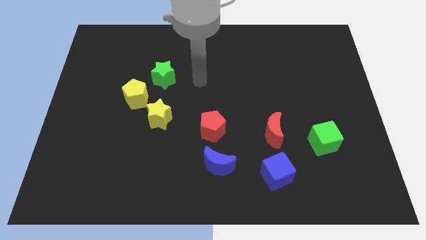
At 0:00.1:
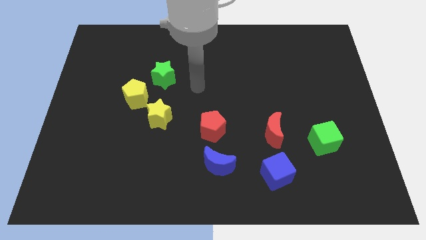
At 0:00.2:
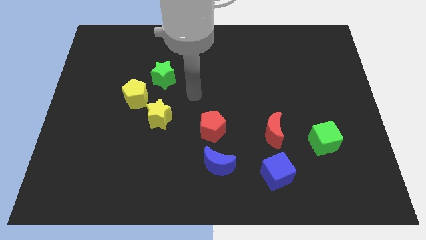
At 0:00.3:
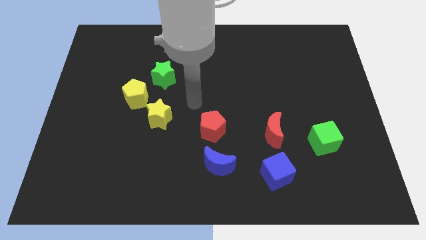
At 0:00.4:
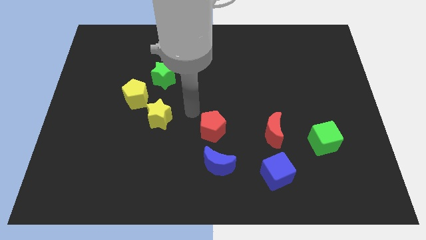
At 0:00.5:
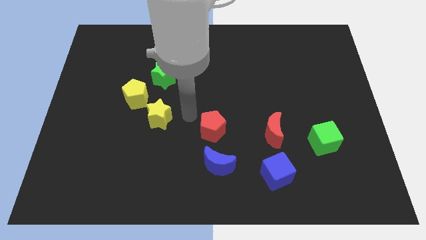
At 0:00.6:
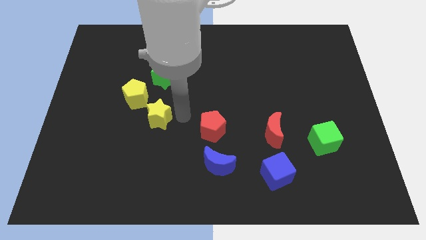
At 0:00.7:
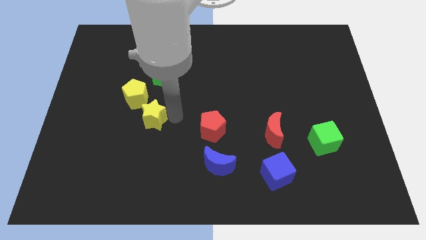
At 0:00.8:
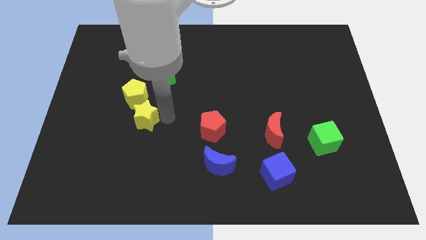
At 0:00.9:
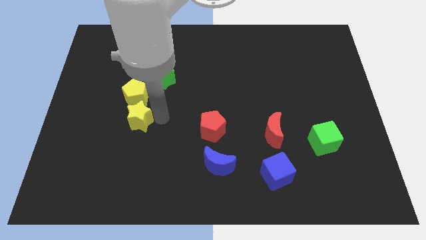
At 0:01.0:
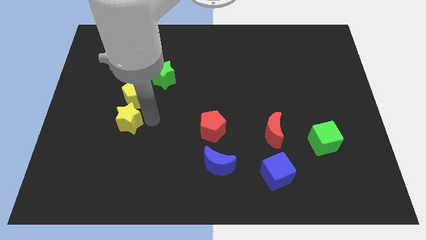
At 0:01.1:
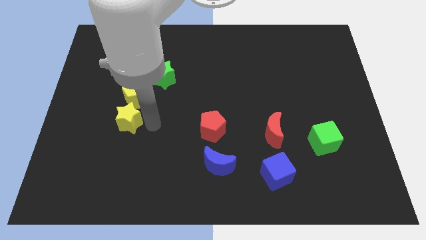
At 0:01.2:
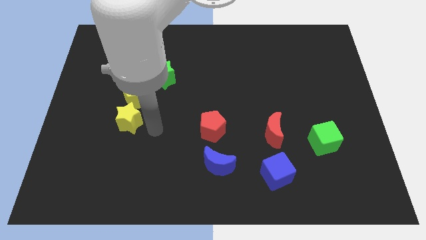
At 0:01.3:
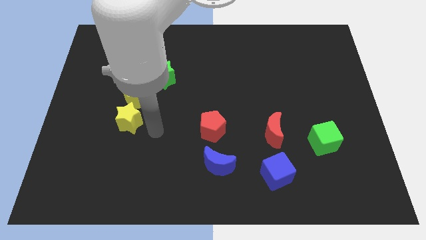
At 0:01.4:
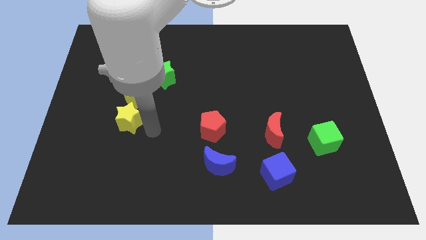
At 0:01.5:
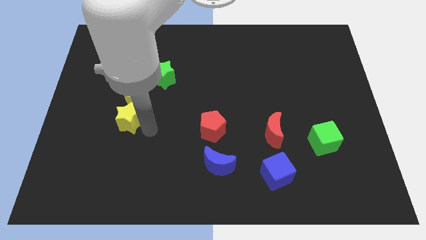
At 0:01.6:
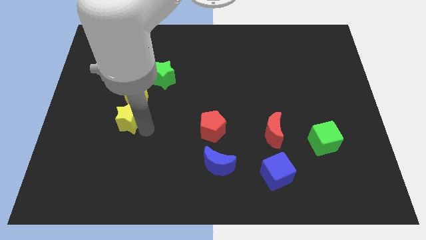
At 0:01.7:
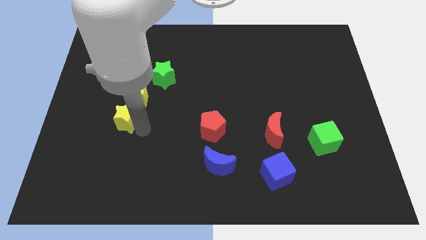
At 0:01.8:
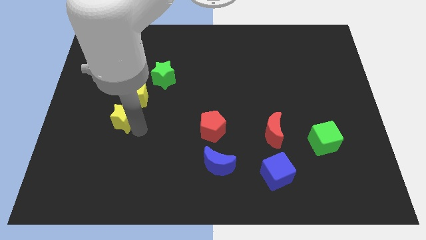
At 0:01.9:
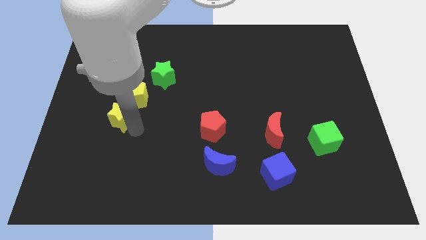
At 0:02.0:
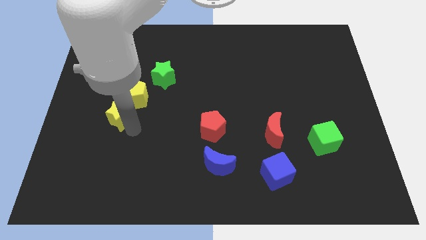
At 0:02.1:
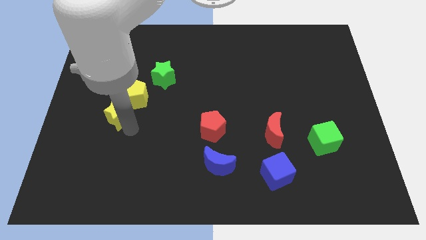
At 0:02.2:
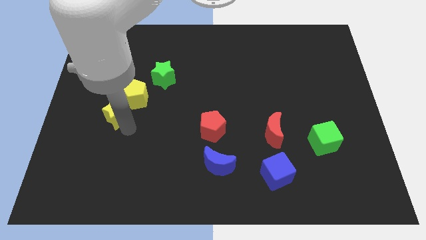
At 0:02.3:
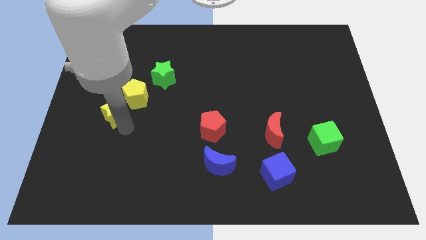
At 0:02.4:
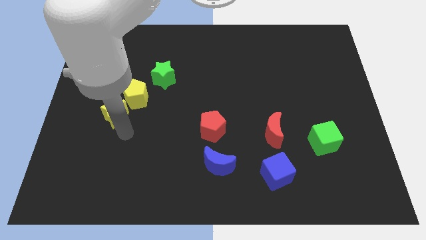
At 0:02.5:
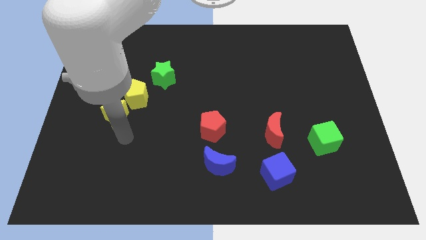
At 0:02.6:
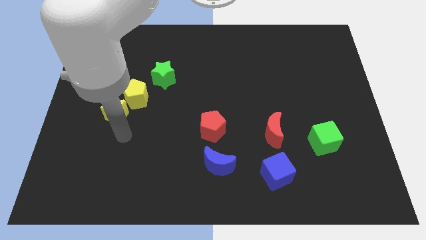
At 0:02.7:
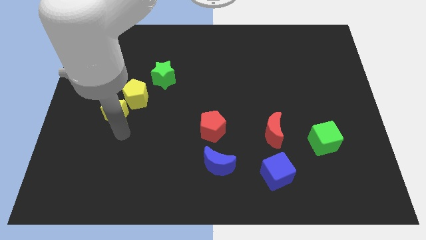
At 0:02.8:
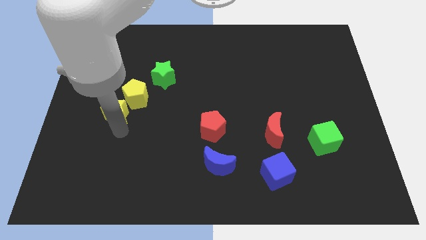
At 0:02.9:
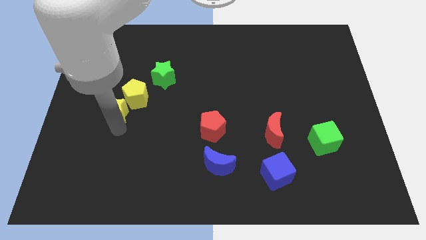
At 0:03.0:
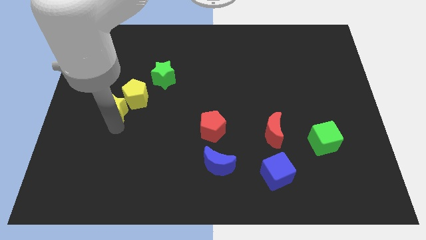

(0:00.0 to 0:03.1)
slide the yellow star a little upwards and to the left

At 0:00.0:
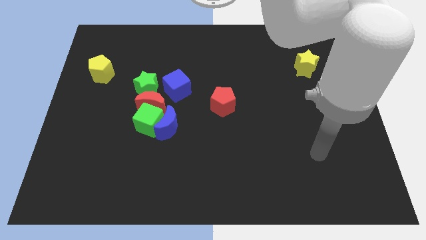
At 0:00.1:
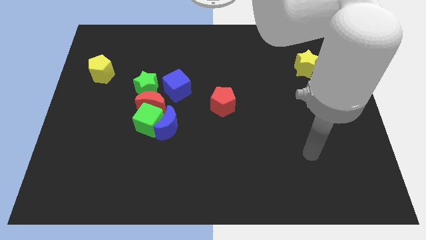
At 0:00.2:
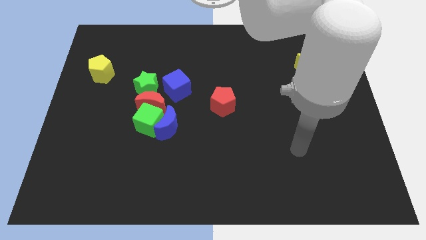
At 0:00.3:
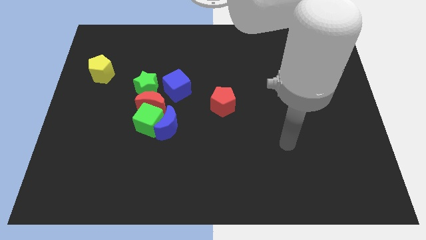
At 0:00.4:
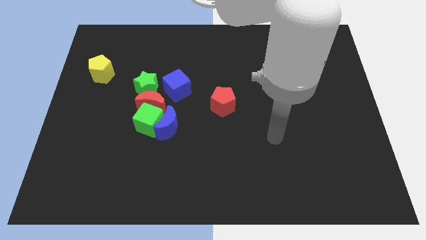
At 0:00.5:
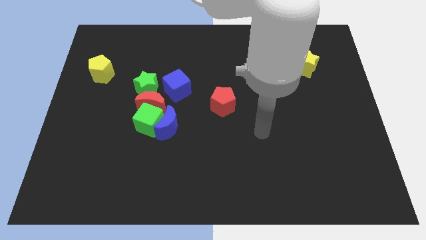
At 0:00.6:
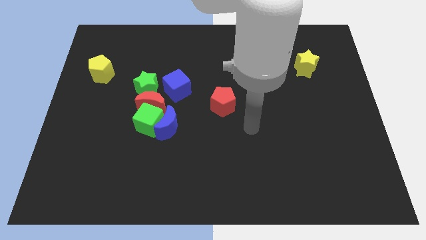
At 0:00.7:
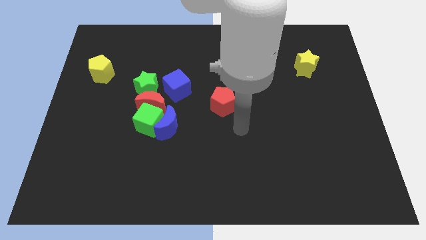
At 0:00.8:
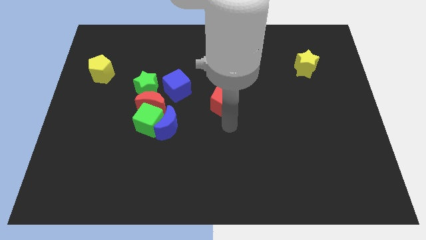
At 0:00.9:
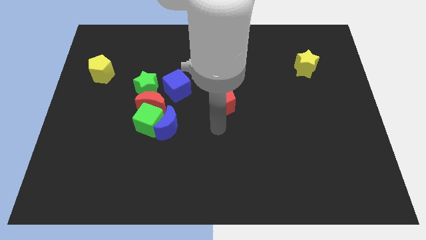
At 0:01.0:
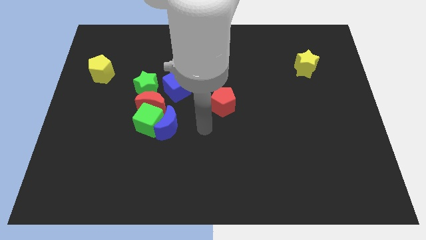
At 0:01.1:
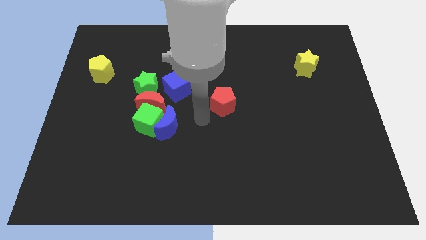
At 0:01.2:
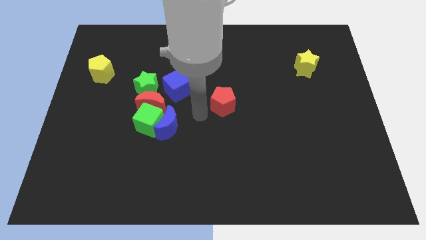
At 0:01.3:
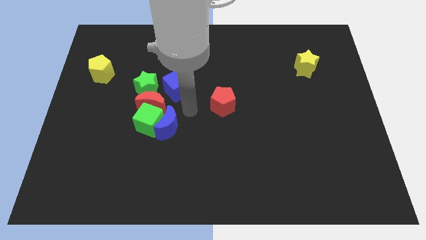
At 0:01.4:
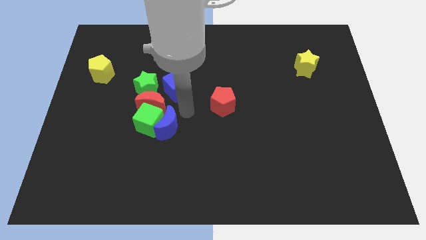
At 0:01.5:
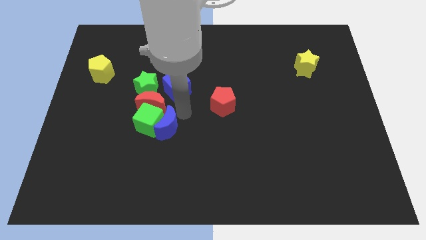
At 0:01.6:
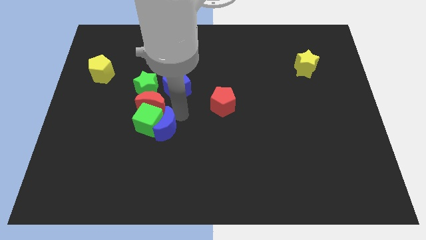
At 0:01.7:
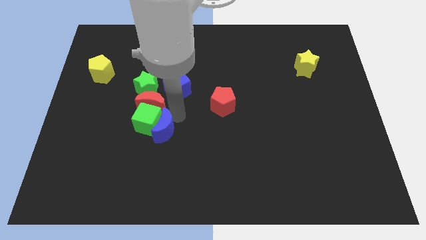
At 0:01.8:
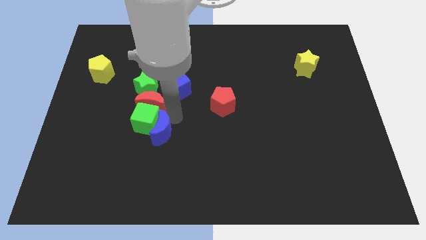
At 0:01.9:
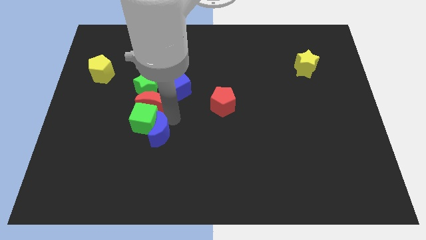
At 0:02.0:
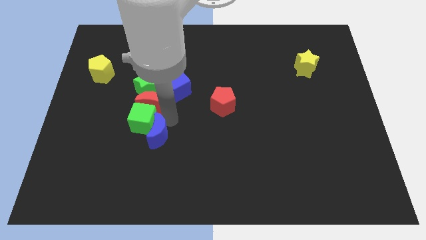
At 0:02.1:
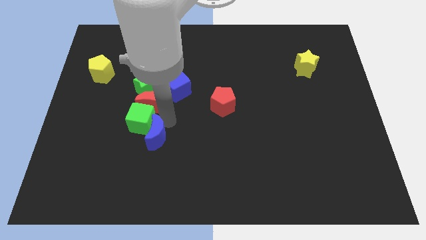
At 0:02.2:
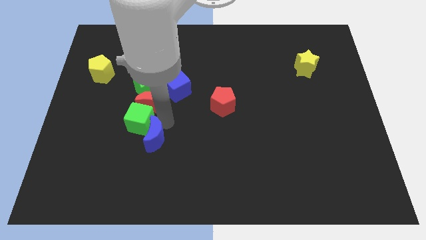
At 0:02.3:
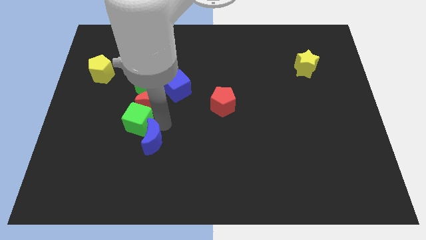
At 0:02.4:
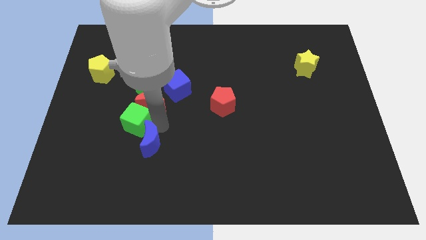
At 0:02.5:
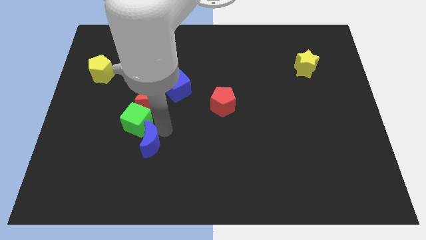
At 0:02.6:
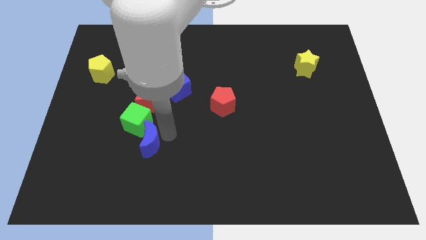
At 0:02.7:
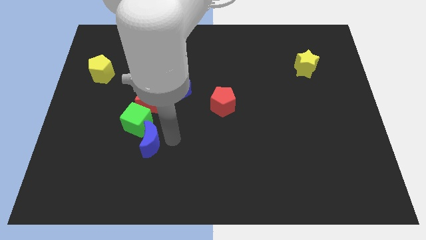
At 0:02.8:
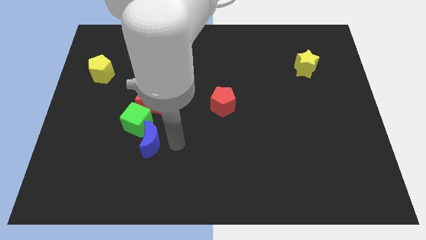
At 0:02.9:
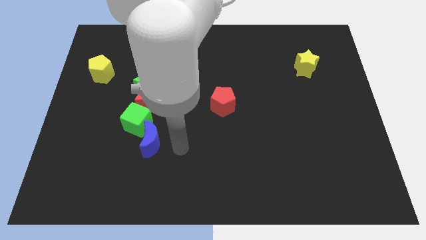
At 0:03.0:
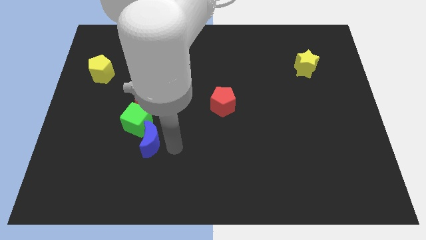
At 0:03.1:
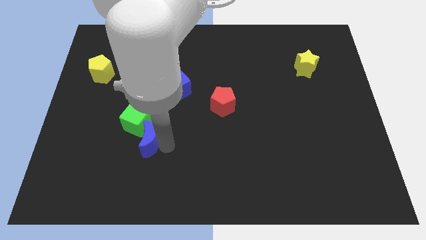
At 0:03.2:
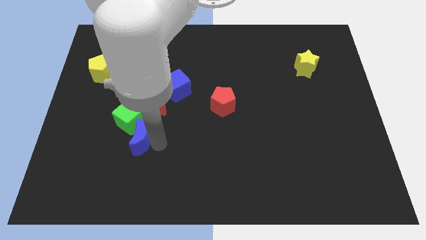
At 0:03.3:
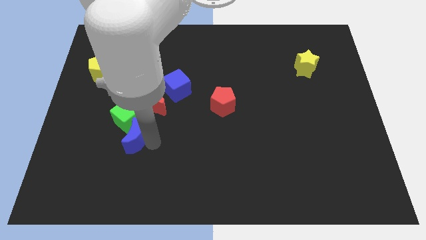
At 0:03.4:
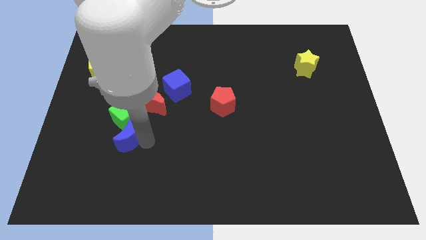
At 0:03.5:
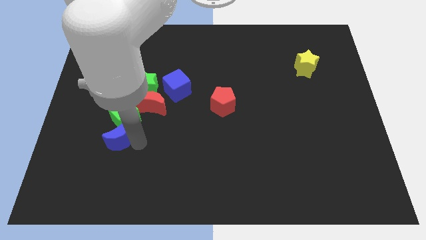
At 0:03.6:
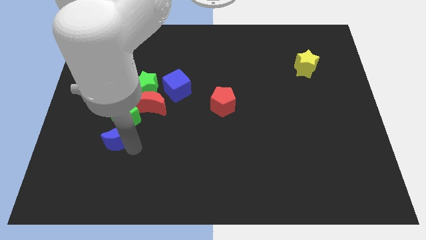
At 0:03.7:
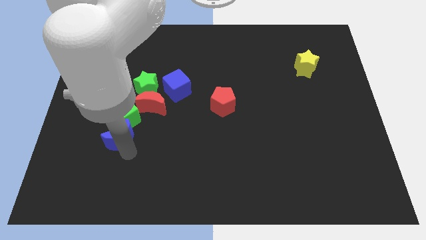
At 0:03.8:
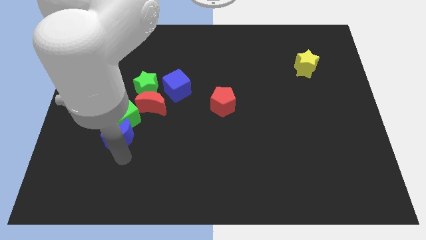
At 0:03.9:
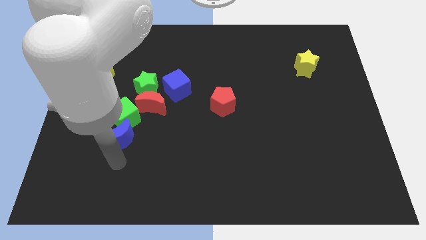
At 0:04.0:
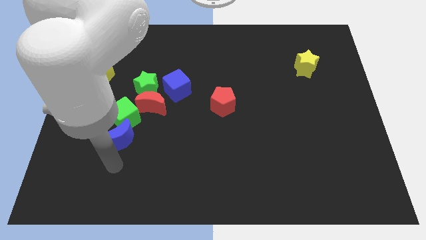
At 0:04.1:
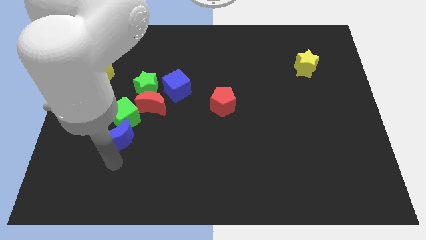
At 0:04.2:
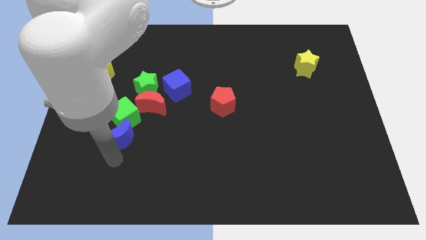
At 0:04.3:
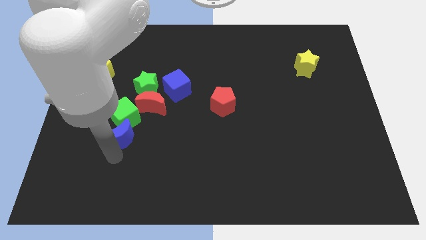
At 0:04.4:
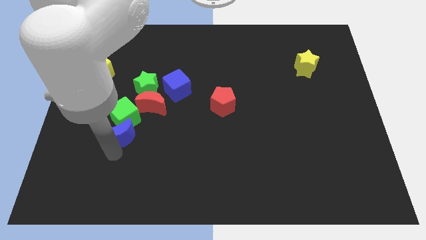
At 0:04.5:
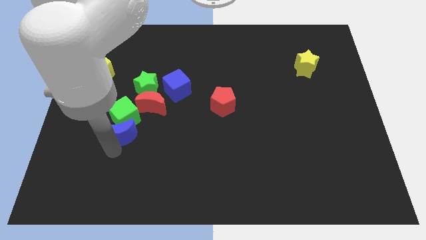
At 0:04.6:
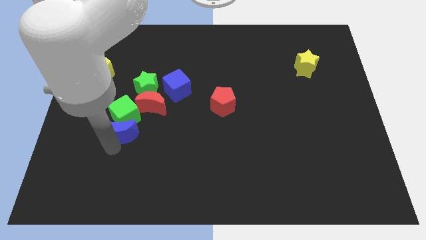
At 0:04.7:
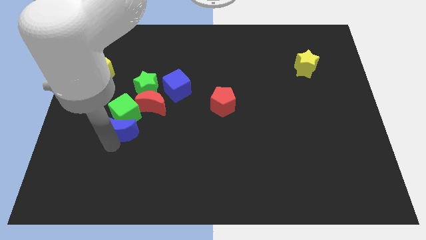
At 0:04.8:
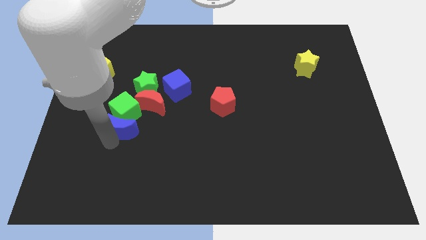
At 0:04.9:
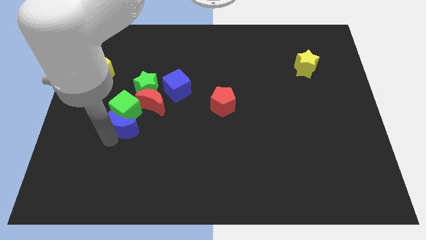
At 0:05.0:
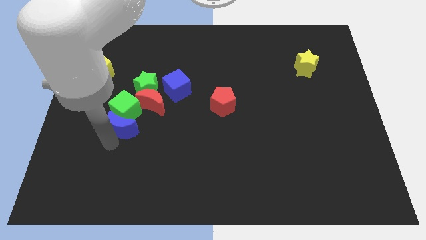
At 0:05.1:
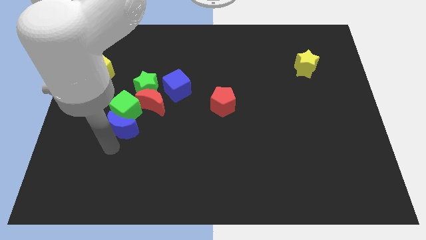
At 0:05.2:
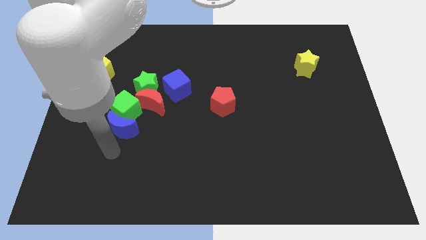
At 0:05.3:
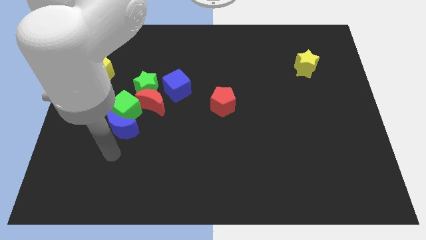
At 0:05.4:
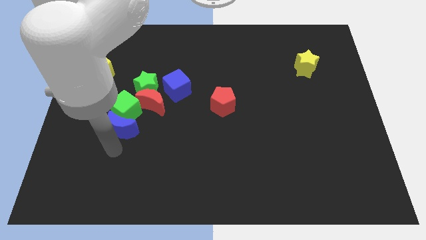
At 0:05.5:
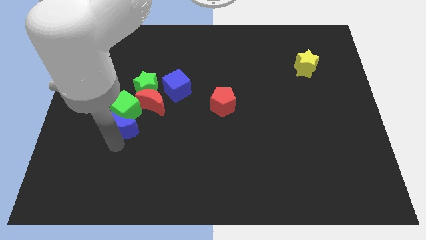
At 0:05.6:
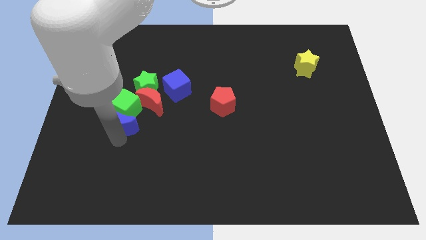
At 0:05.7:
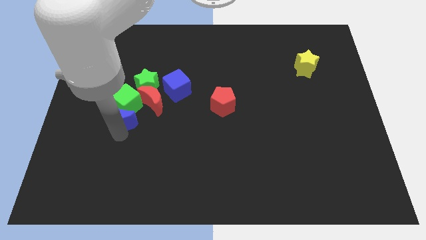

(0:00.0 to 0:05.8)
move the blue moon upwards and then left a bit
